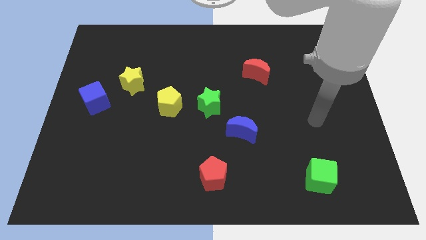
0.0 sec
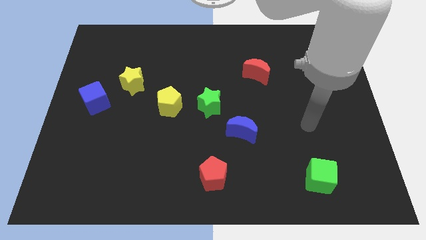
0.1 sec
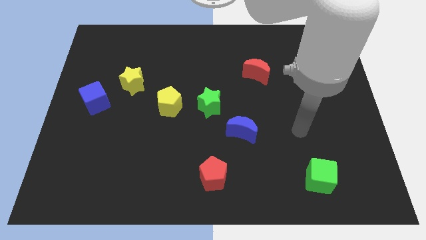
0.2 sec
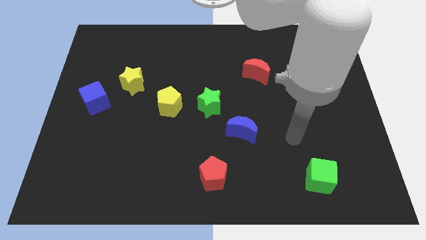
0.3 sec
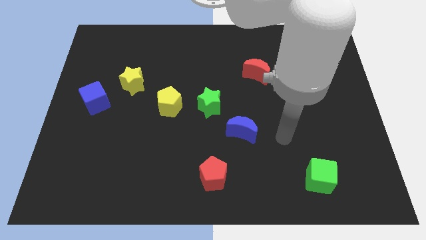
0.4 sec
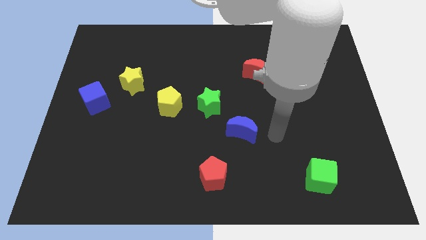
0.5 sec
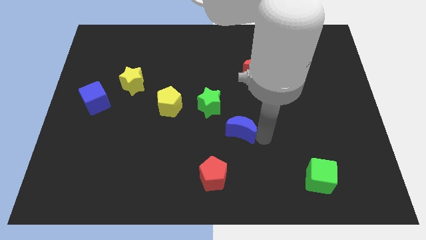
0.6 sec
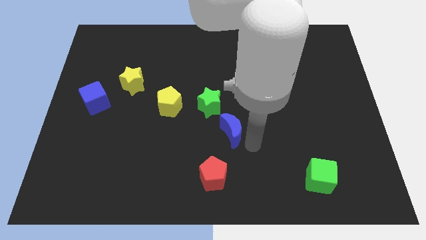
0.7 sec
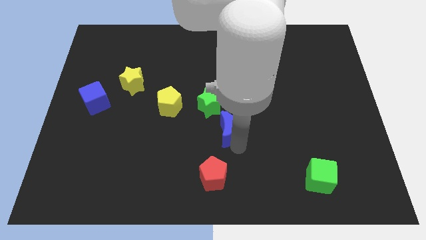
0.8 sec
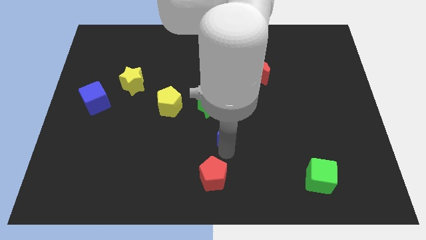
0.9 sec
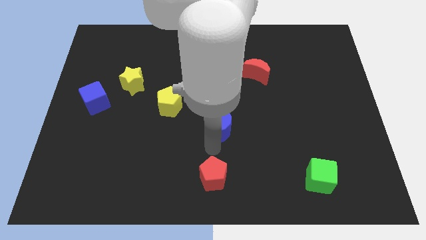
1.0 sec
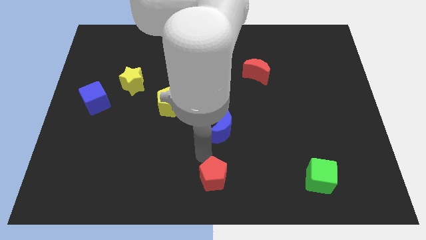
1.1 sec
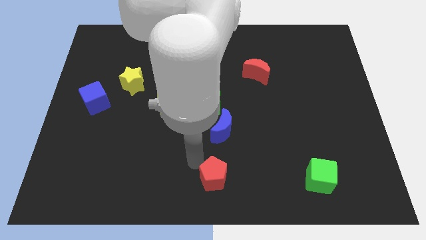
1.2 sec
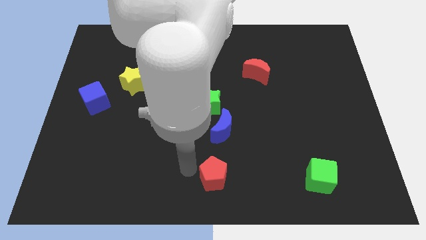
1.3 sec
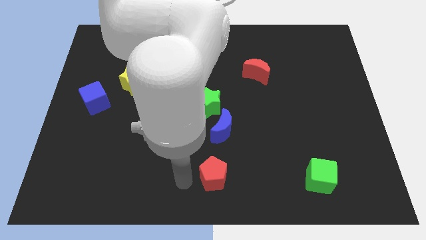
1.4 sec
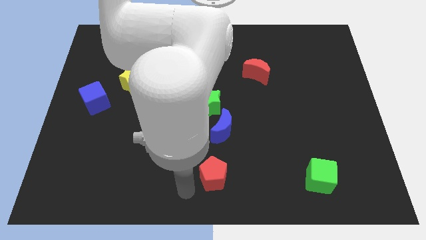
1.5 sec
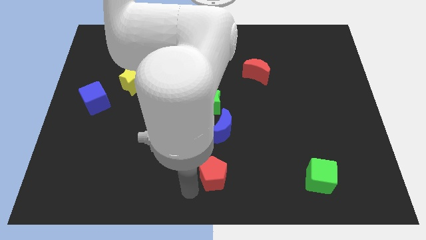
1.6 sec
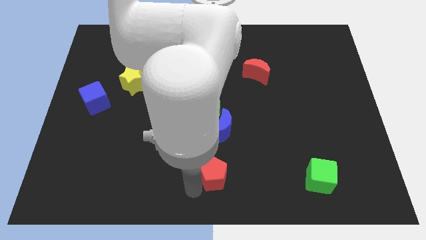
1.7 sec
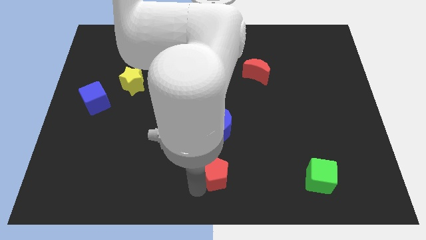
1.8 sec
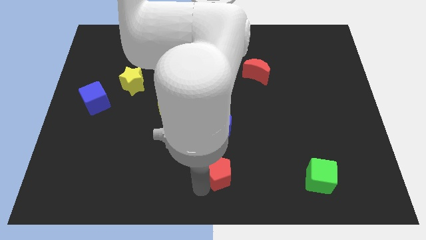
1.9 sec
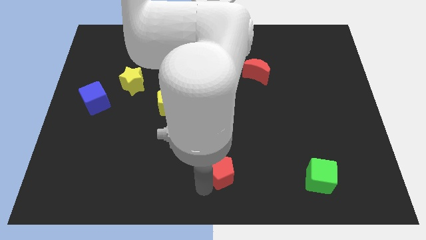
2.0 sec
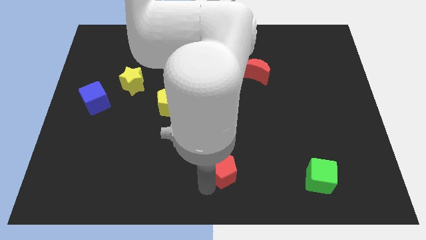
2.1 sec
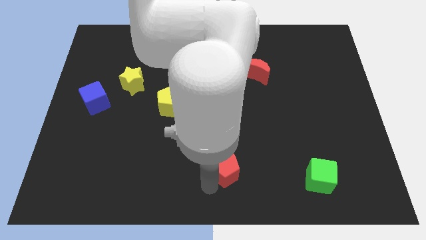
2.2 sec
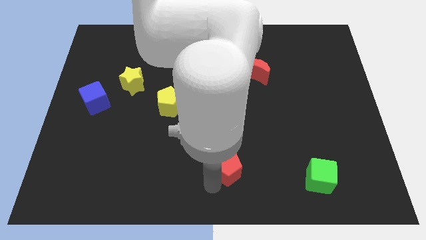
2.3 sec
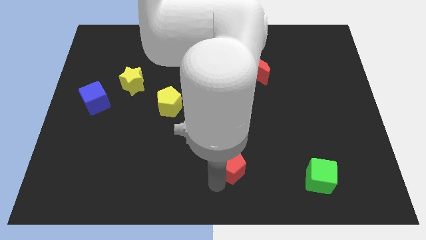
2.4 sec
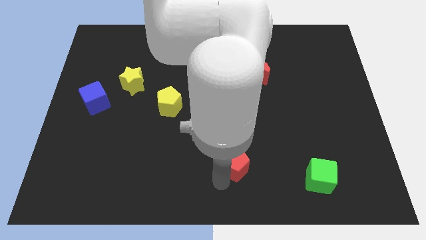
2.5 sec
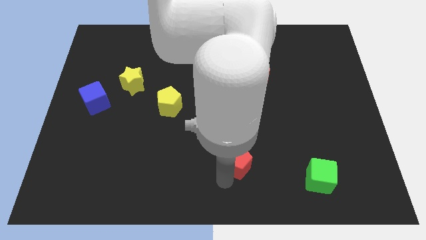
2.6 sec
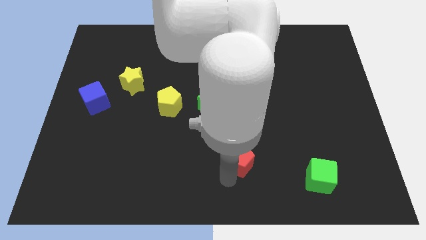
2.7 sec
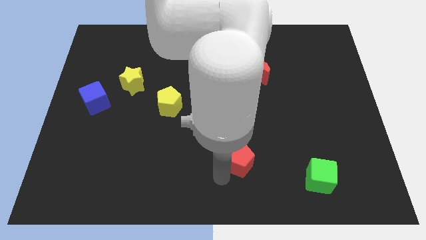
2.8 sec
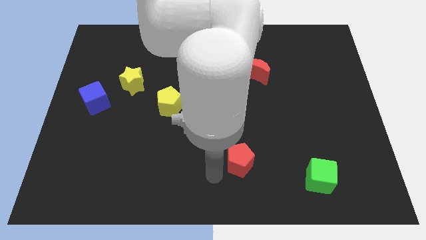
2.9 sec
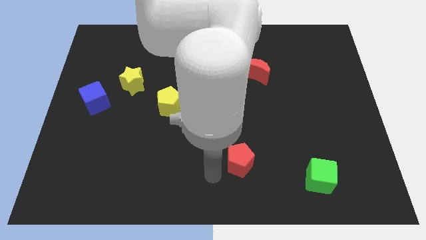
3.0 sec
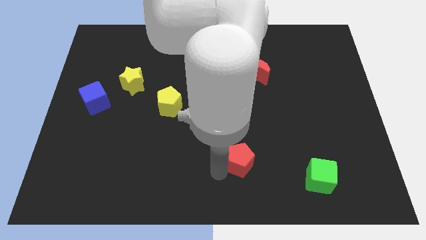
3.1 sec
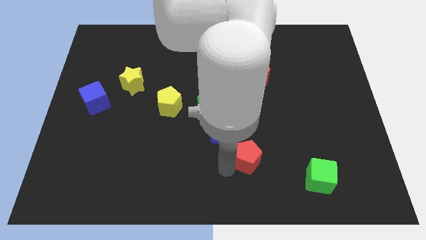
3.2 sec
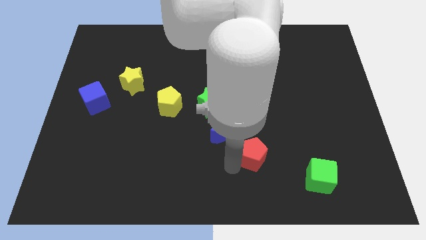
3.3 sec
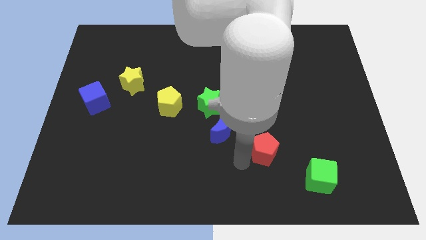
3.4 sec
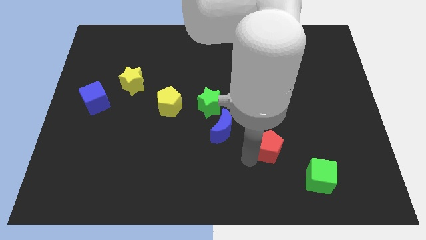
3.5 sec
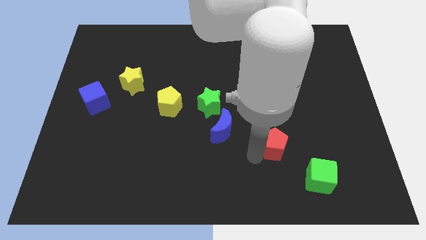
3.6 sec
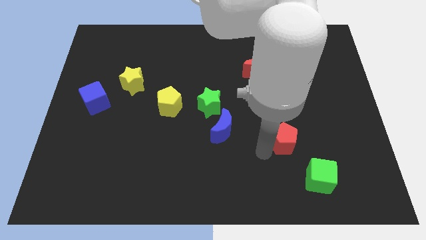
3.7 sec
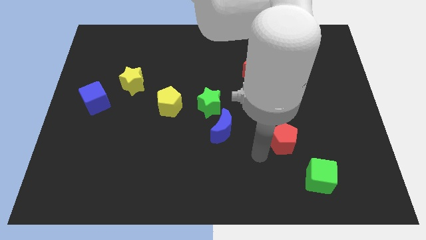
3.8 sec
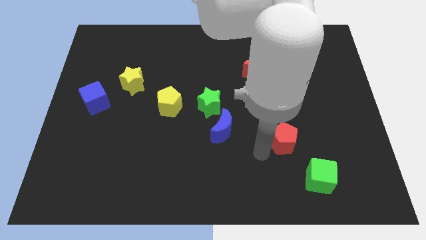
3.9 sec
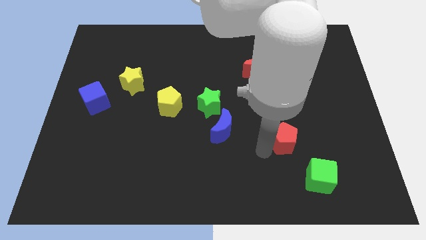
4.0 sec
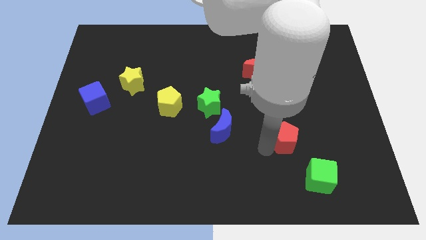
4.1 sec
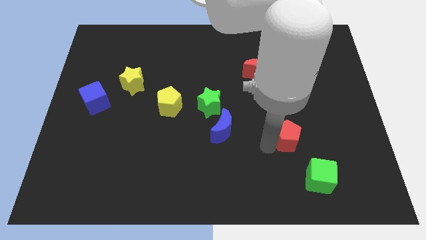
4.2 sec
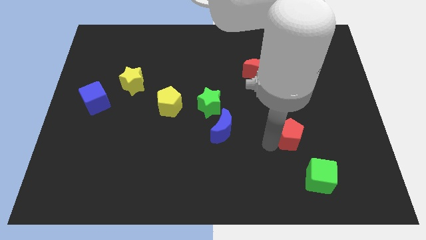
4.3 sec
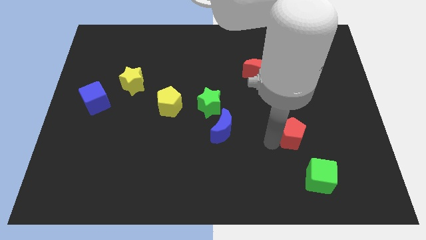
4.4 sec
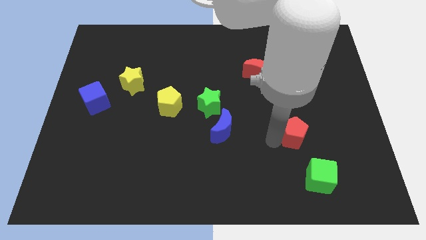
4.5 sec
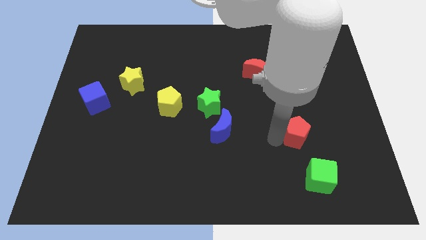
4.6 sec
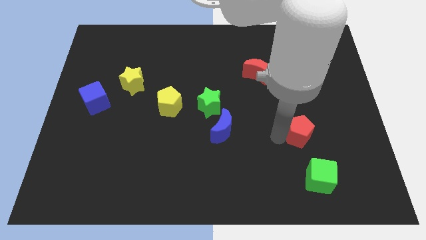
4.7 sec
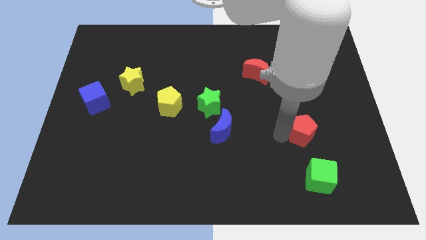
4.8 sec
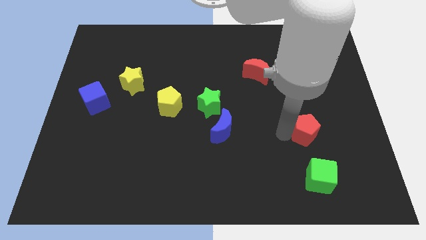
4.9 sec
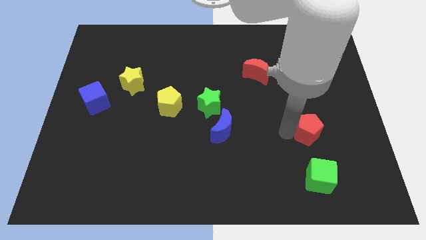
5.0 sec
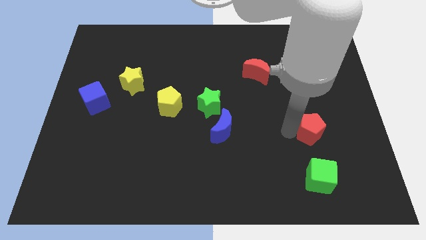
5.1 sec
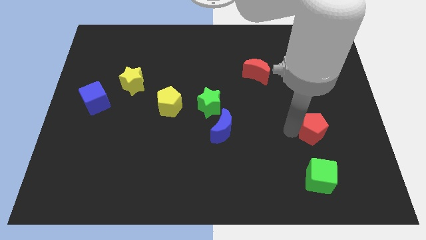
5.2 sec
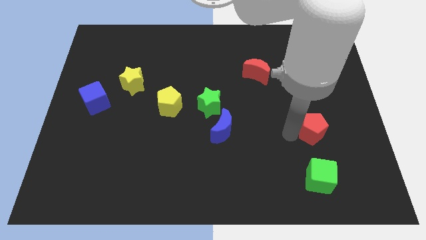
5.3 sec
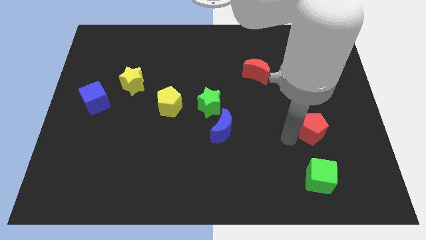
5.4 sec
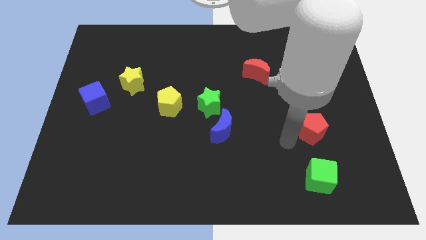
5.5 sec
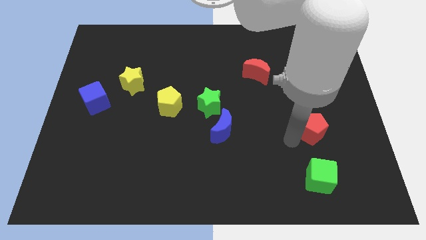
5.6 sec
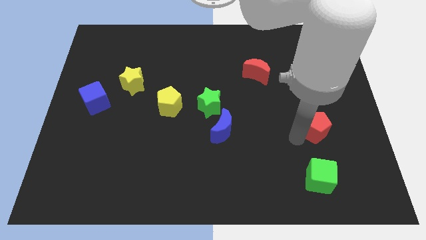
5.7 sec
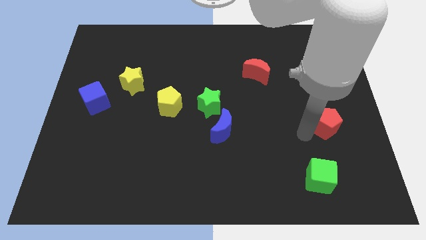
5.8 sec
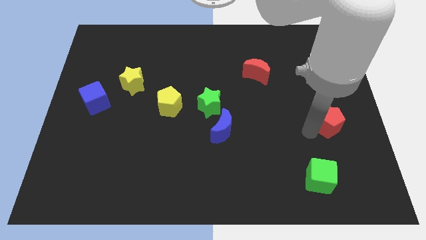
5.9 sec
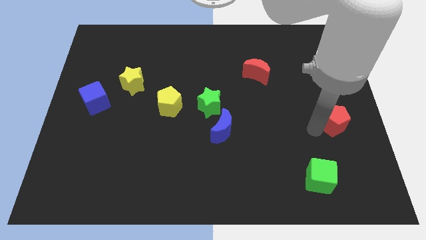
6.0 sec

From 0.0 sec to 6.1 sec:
push the red pentagon to the right side of the board
